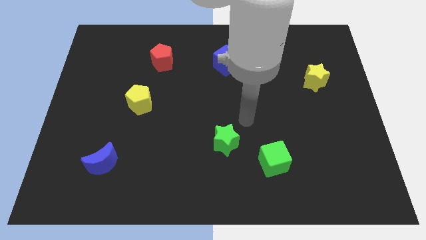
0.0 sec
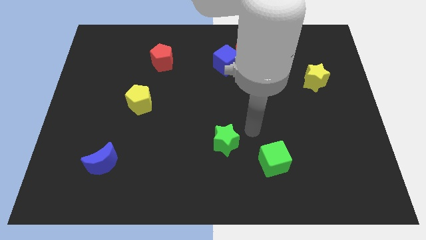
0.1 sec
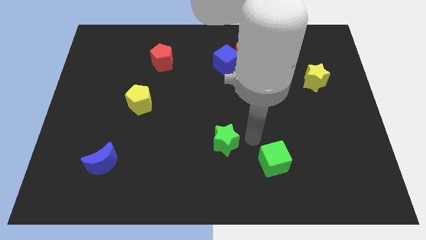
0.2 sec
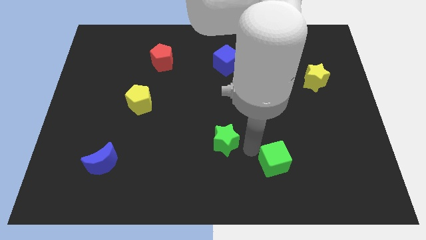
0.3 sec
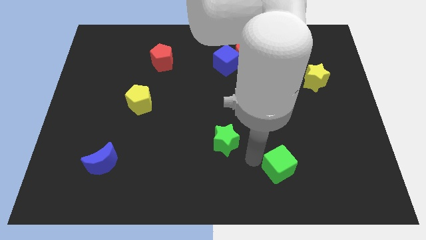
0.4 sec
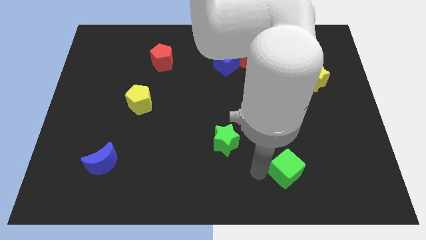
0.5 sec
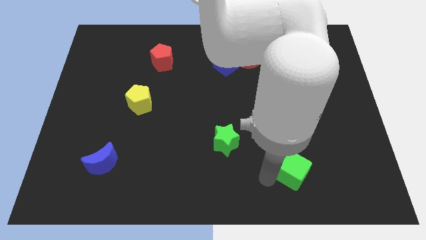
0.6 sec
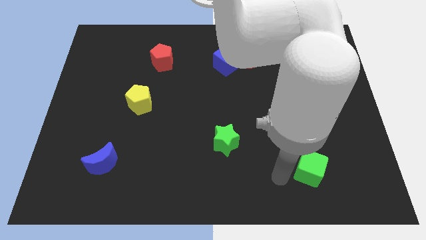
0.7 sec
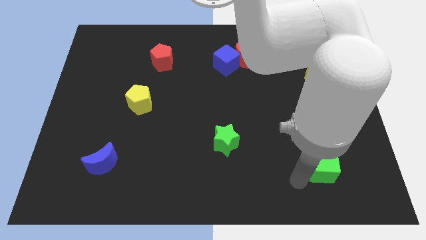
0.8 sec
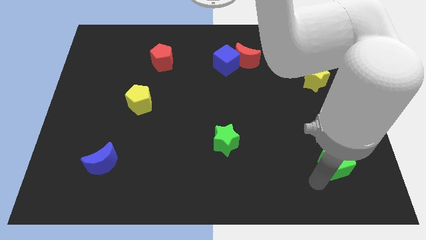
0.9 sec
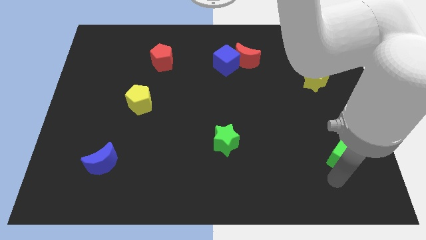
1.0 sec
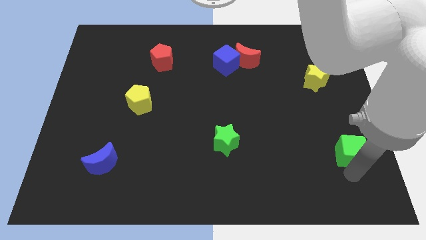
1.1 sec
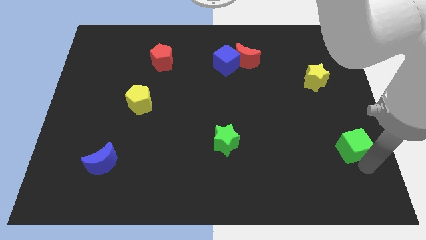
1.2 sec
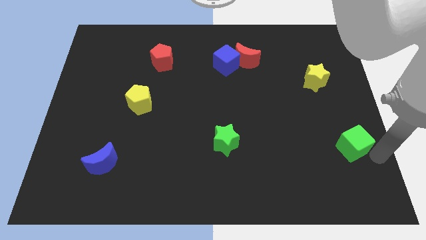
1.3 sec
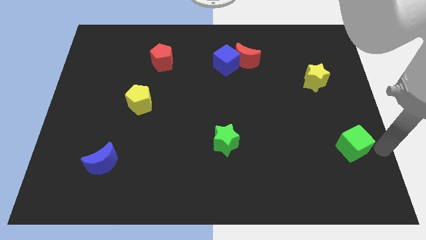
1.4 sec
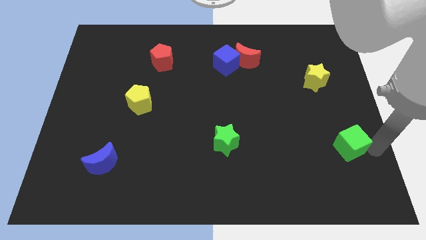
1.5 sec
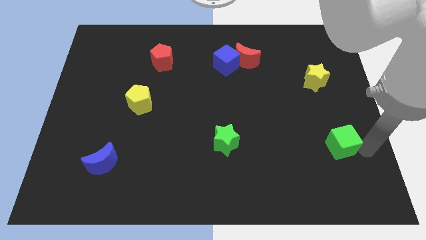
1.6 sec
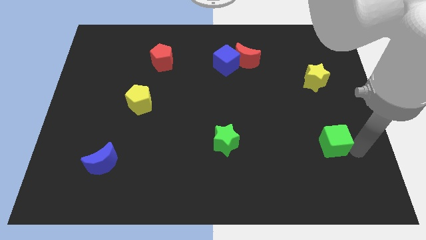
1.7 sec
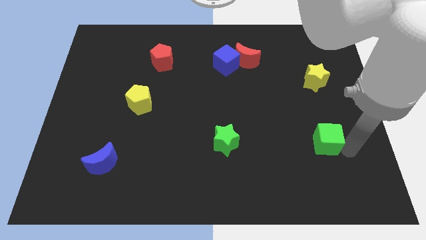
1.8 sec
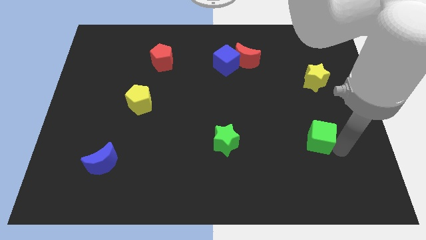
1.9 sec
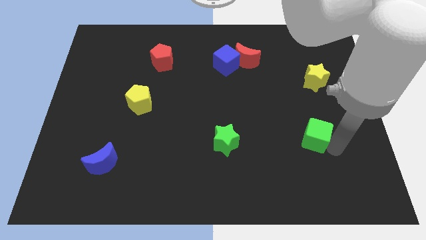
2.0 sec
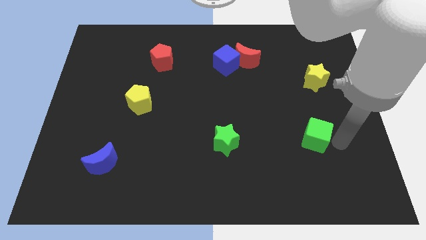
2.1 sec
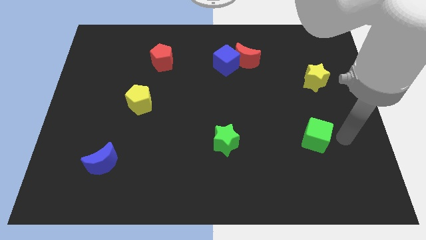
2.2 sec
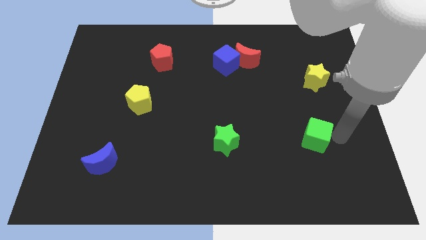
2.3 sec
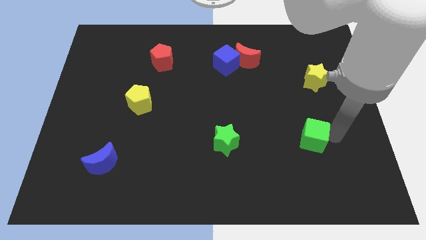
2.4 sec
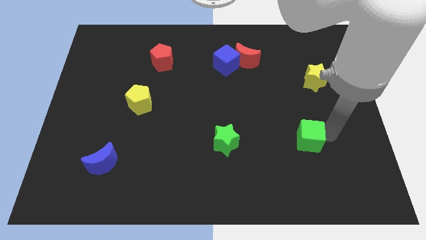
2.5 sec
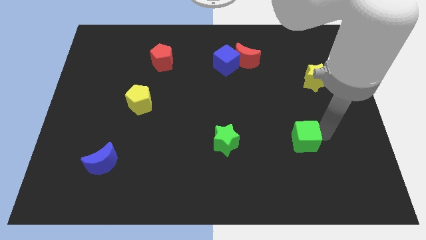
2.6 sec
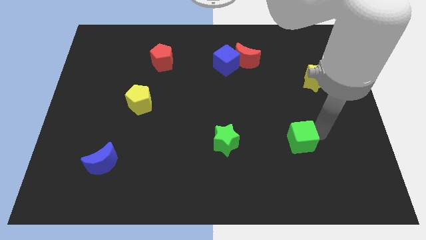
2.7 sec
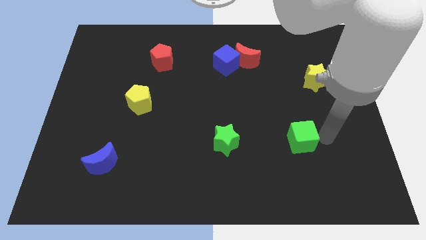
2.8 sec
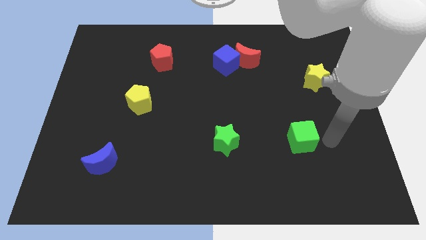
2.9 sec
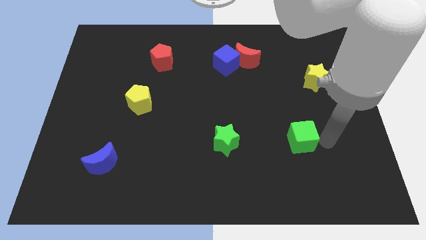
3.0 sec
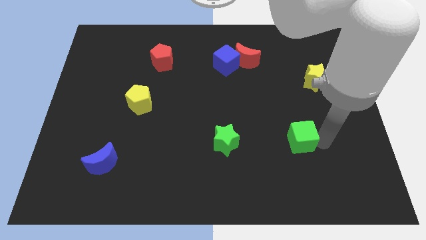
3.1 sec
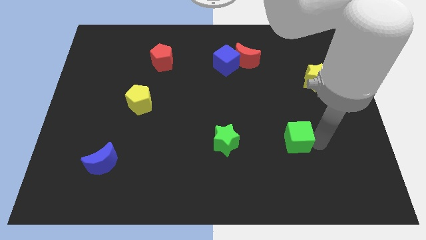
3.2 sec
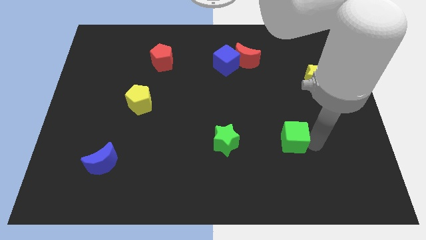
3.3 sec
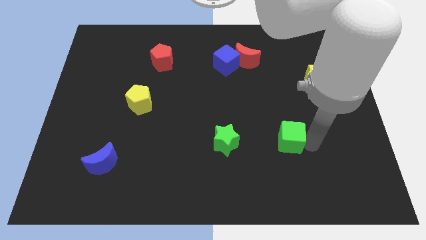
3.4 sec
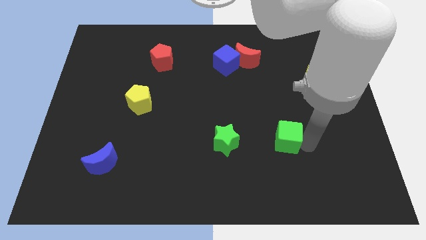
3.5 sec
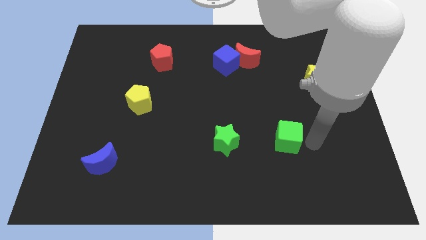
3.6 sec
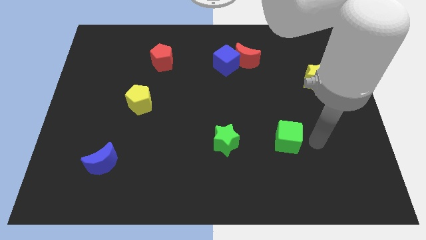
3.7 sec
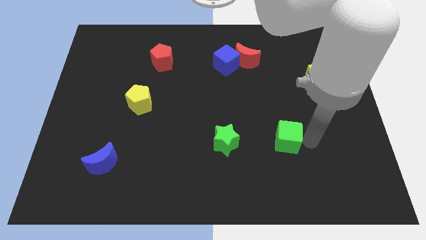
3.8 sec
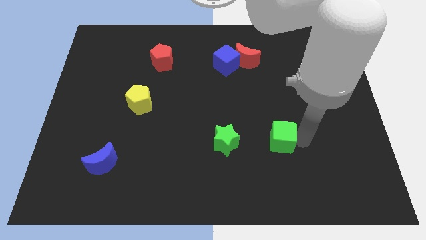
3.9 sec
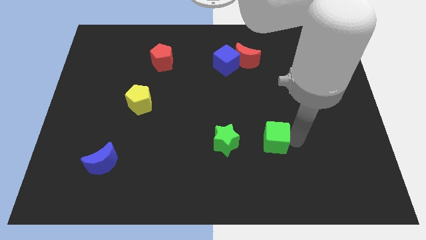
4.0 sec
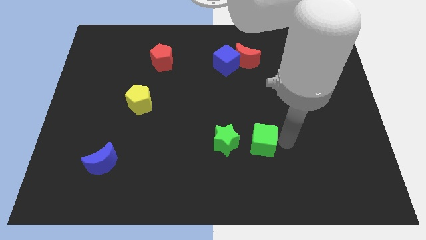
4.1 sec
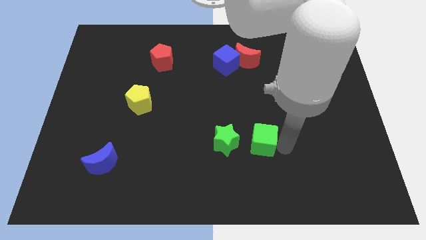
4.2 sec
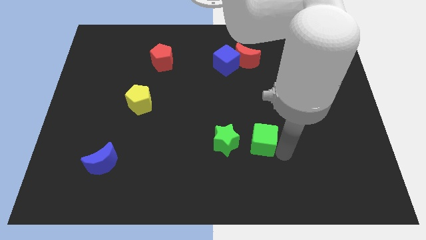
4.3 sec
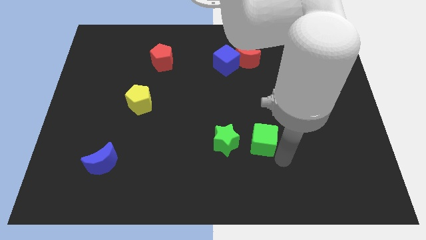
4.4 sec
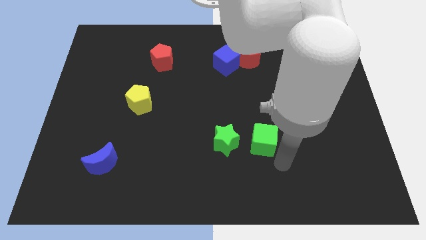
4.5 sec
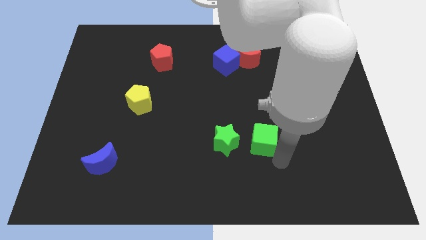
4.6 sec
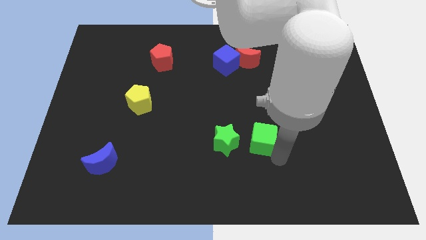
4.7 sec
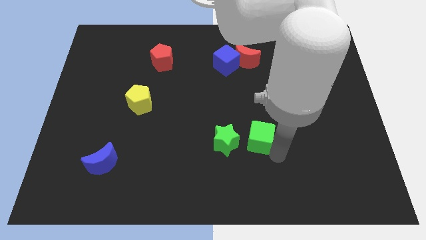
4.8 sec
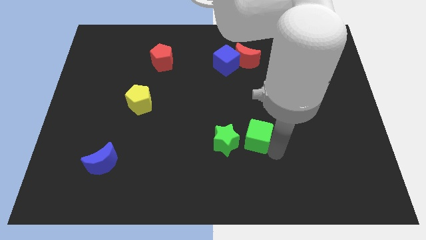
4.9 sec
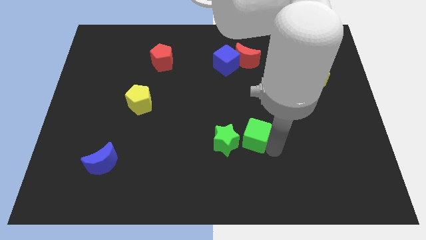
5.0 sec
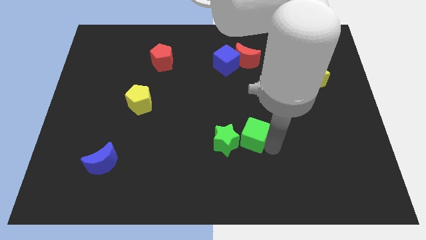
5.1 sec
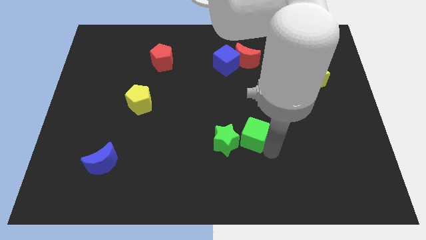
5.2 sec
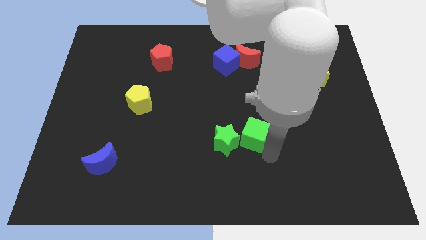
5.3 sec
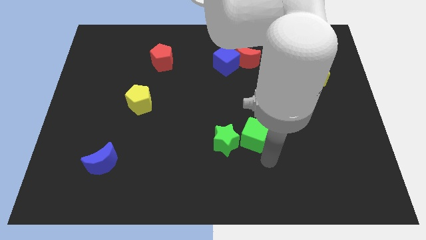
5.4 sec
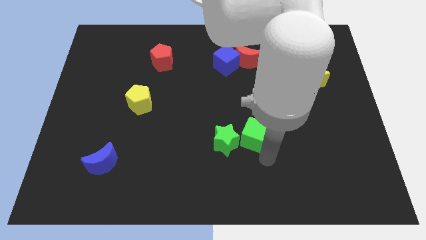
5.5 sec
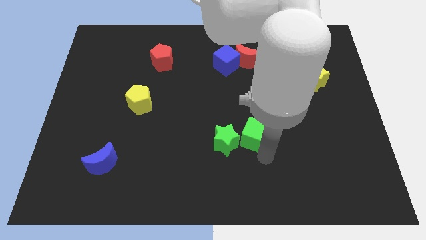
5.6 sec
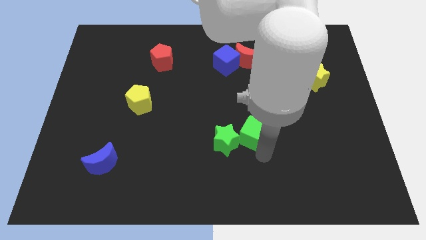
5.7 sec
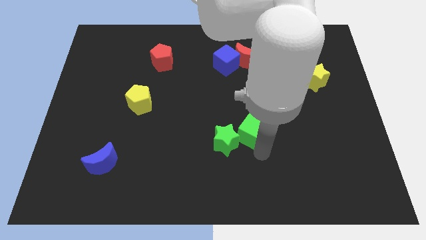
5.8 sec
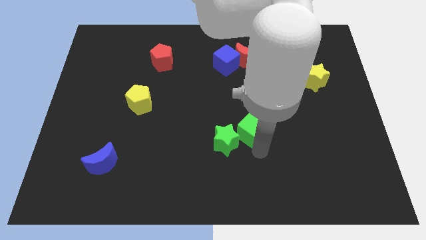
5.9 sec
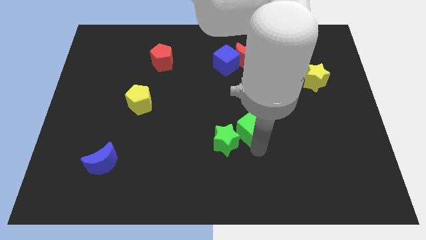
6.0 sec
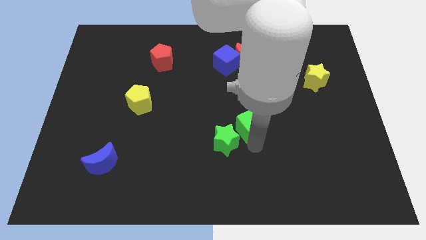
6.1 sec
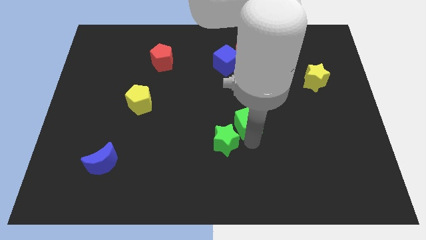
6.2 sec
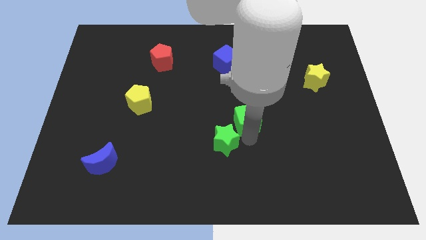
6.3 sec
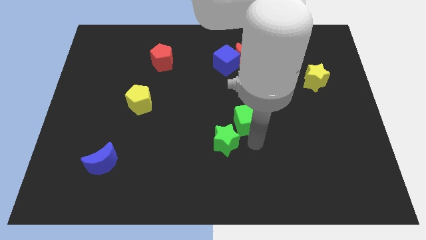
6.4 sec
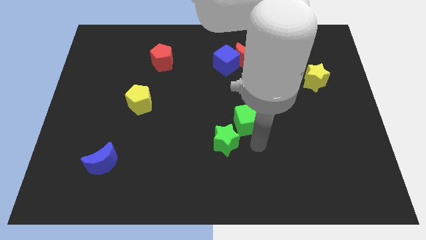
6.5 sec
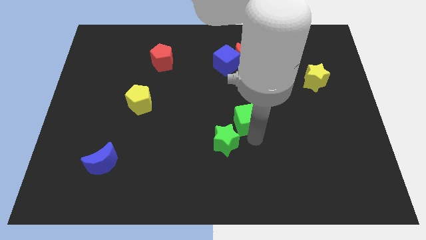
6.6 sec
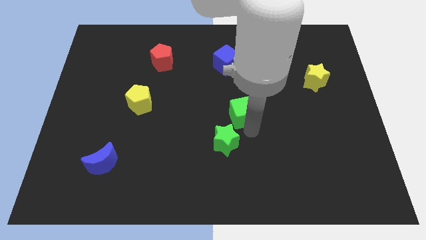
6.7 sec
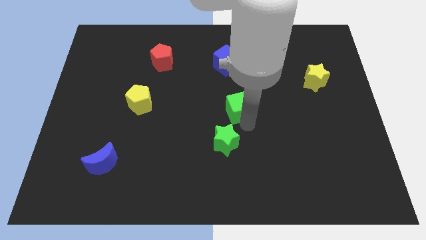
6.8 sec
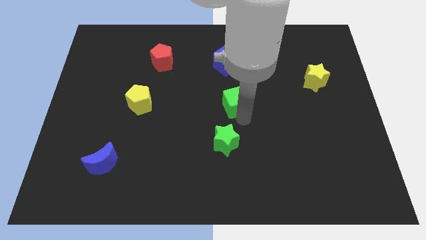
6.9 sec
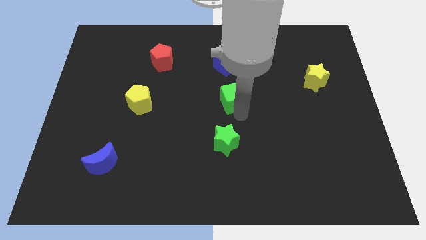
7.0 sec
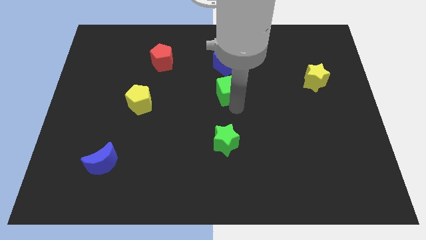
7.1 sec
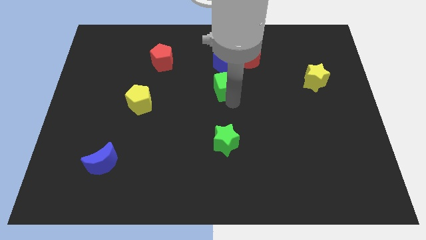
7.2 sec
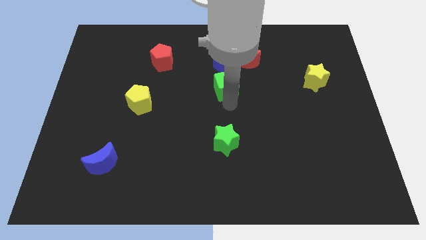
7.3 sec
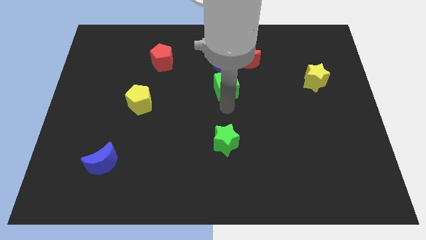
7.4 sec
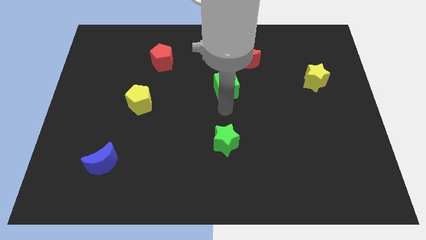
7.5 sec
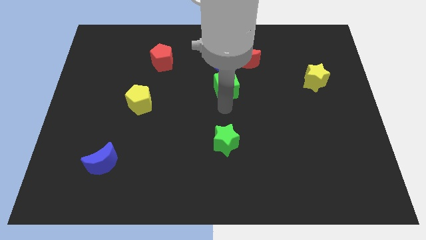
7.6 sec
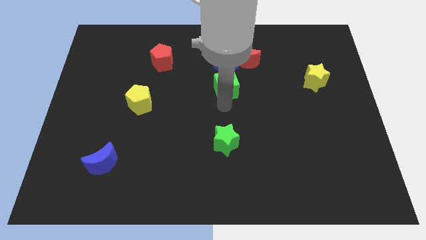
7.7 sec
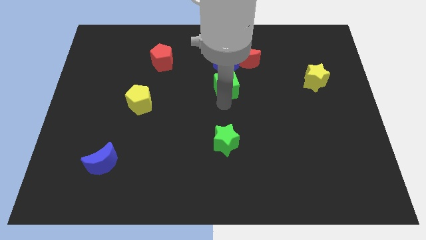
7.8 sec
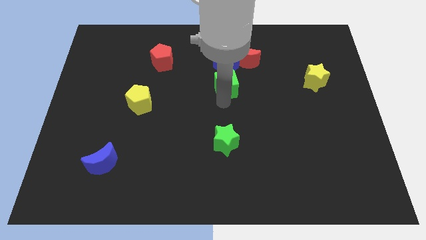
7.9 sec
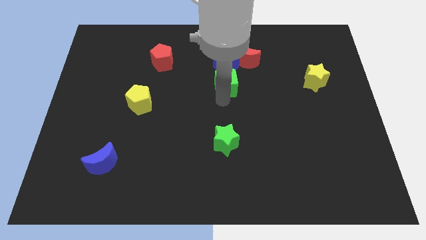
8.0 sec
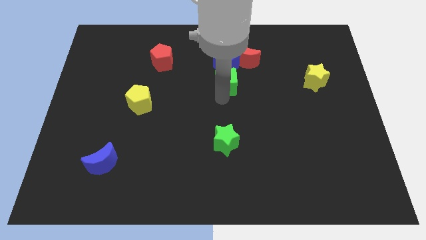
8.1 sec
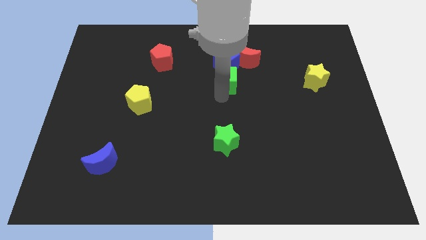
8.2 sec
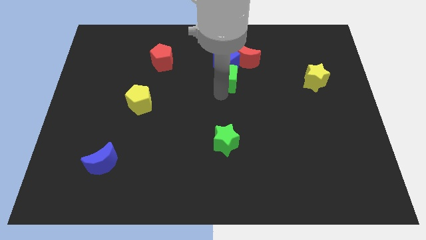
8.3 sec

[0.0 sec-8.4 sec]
move the green cube next to the blue cube
